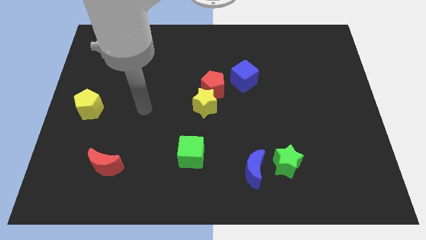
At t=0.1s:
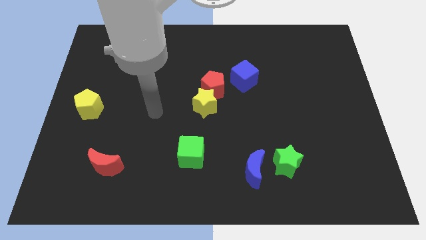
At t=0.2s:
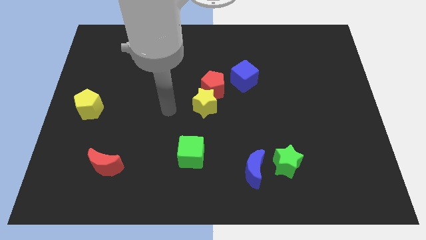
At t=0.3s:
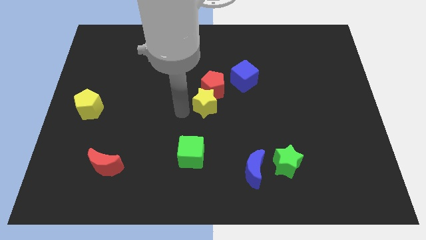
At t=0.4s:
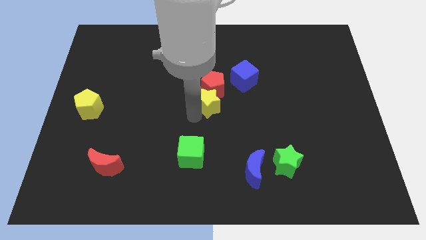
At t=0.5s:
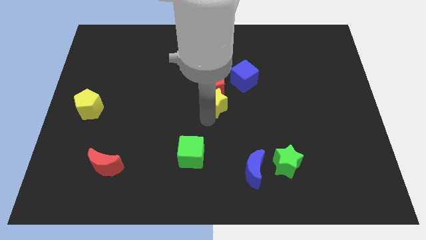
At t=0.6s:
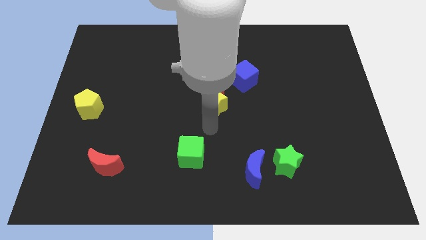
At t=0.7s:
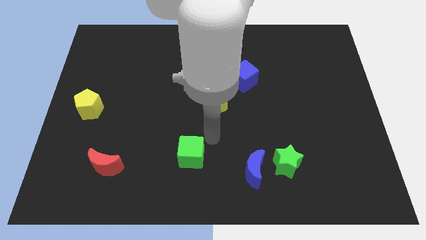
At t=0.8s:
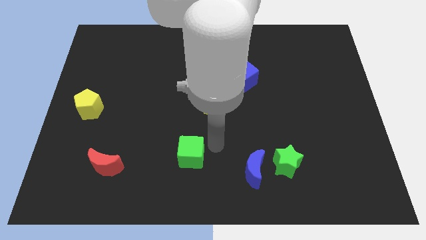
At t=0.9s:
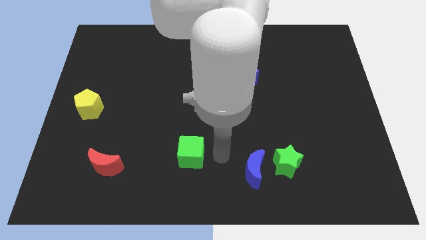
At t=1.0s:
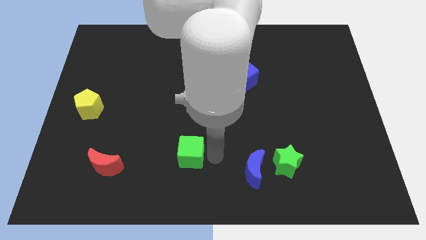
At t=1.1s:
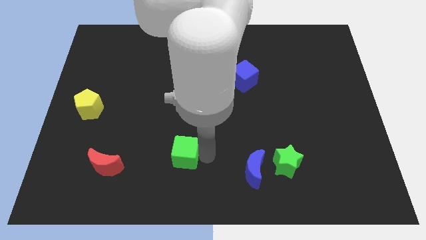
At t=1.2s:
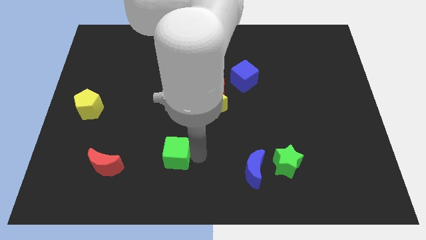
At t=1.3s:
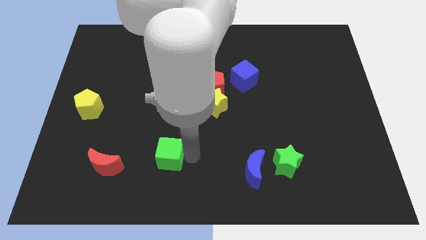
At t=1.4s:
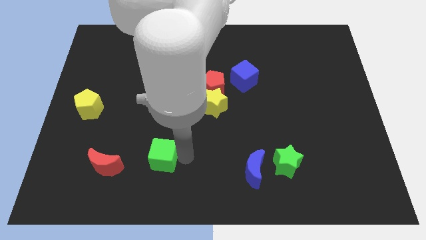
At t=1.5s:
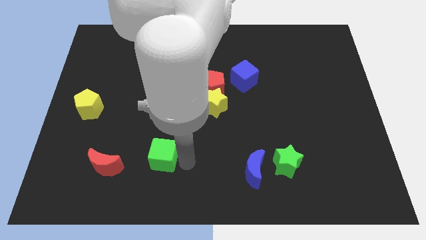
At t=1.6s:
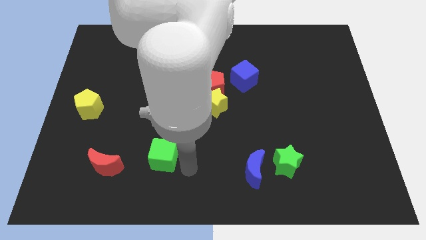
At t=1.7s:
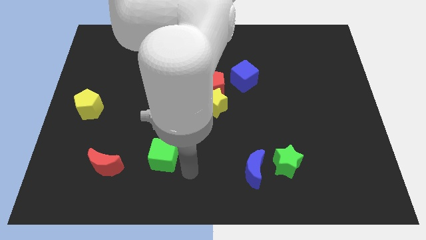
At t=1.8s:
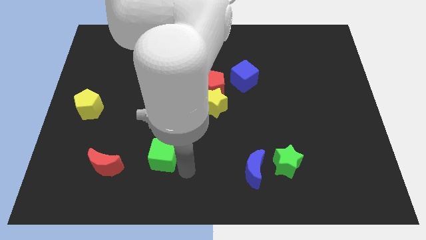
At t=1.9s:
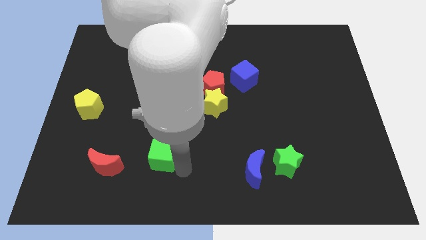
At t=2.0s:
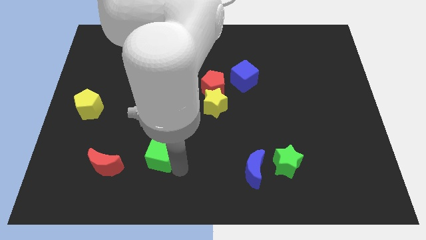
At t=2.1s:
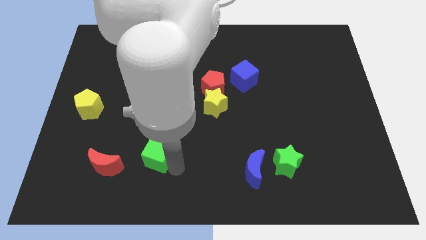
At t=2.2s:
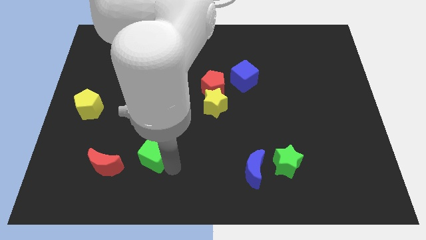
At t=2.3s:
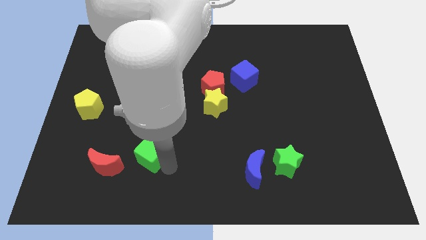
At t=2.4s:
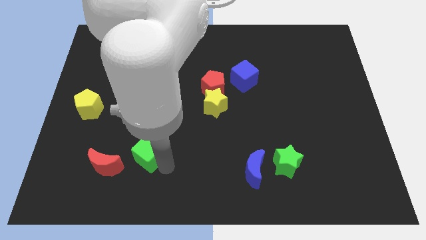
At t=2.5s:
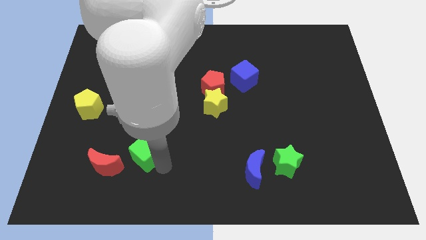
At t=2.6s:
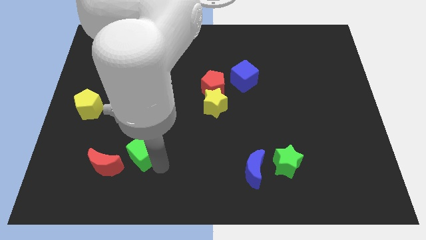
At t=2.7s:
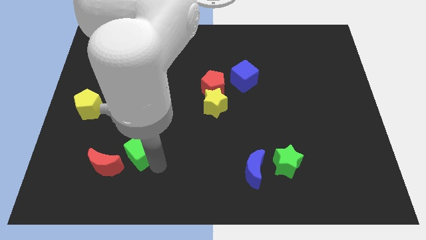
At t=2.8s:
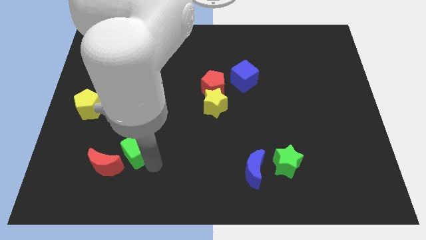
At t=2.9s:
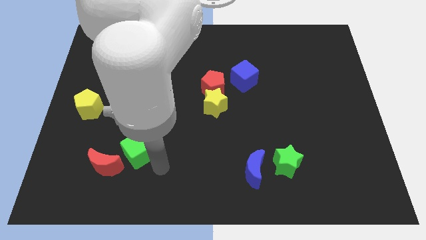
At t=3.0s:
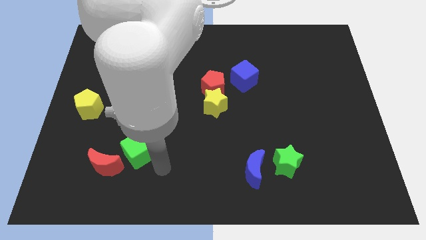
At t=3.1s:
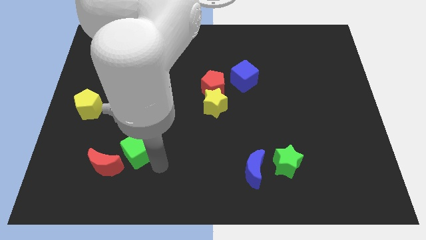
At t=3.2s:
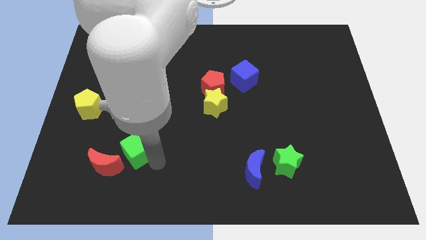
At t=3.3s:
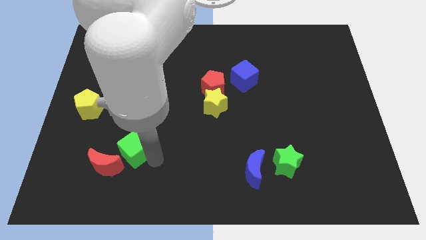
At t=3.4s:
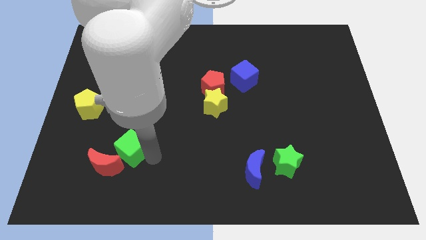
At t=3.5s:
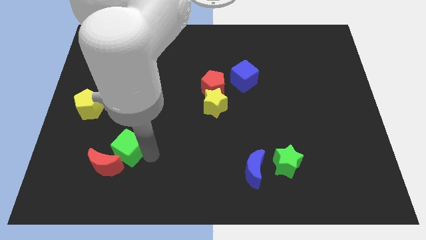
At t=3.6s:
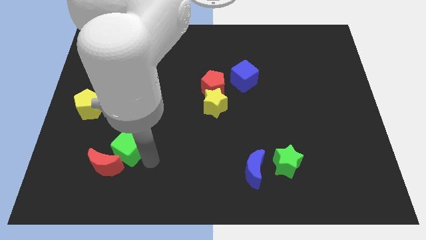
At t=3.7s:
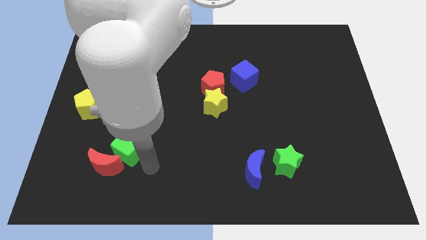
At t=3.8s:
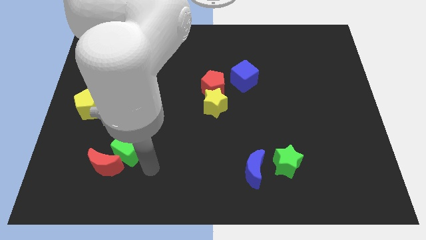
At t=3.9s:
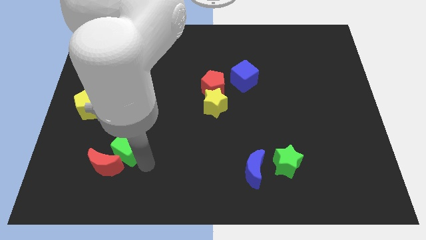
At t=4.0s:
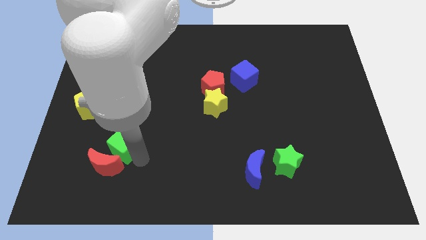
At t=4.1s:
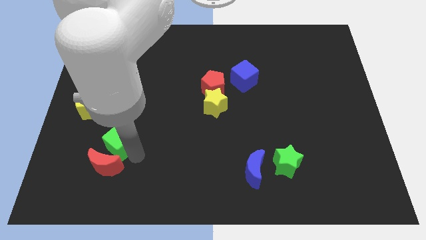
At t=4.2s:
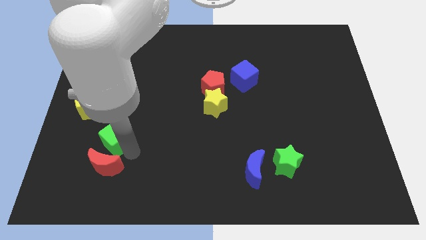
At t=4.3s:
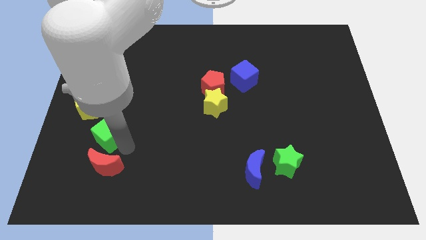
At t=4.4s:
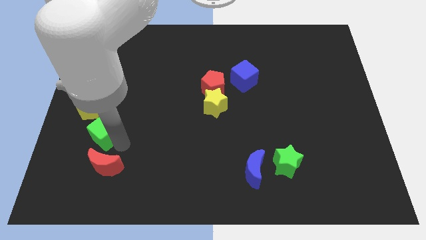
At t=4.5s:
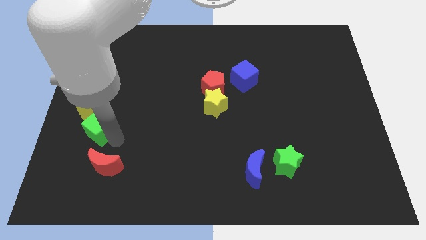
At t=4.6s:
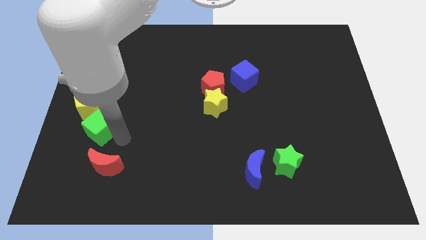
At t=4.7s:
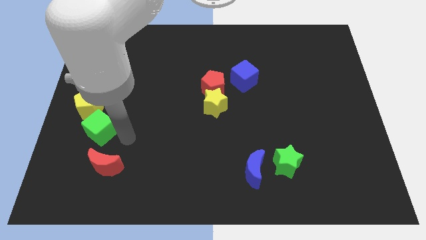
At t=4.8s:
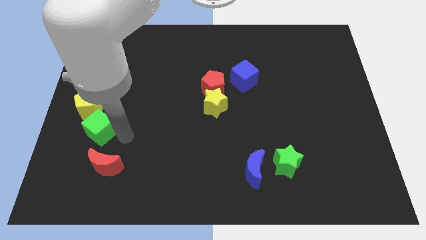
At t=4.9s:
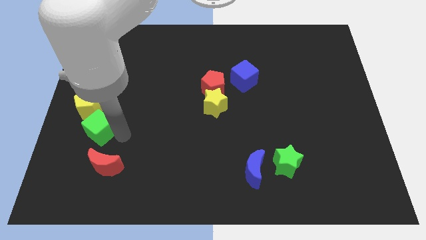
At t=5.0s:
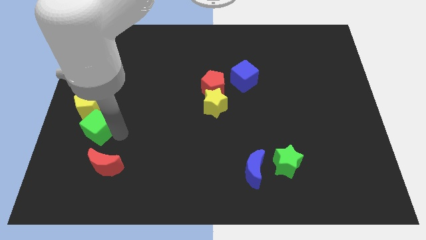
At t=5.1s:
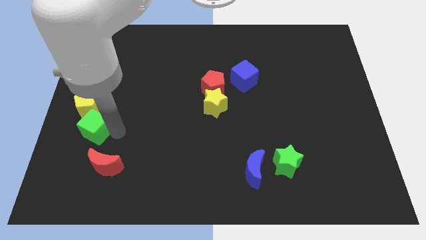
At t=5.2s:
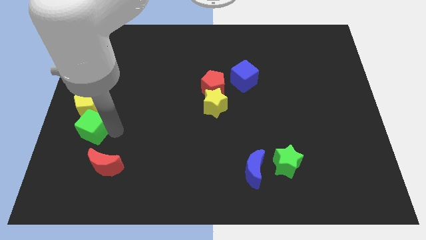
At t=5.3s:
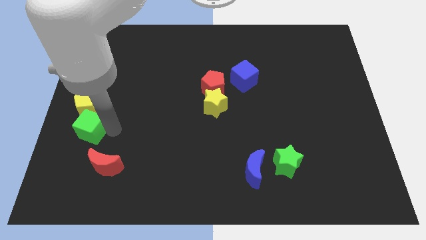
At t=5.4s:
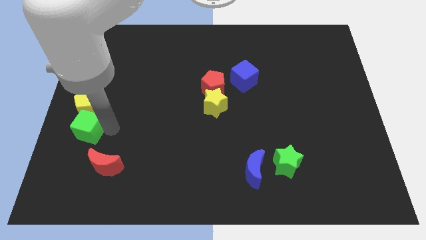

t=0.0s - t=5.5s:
push the green cube to the left side of the board

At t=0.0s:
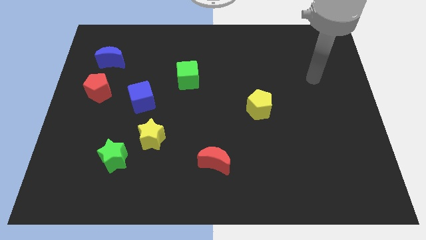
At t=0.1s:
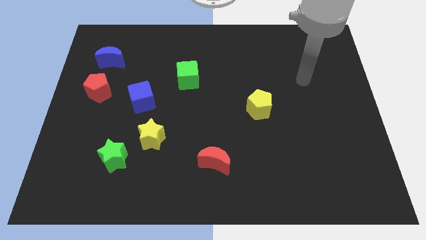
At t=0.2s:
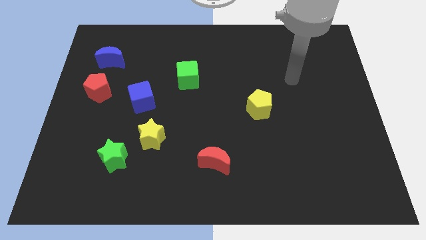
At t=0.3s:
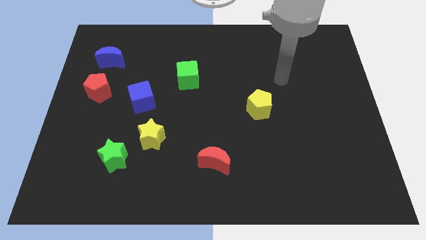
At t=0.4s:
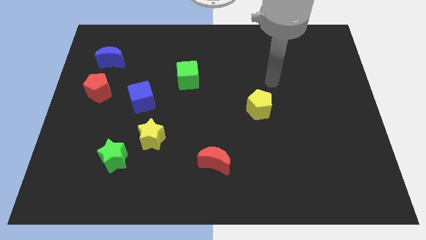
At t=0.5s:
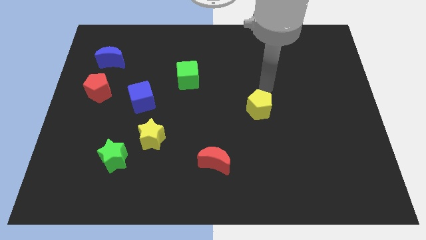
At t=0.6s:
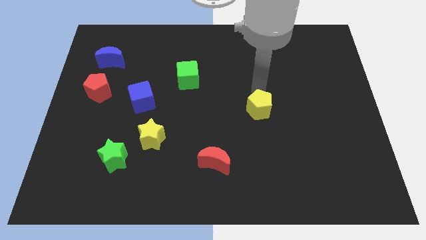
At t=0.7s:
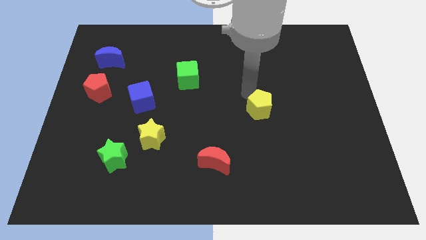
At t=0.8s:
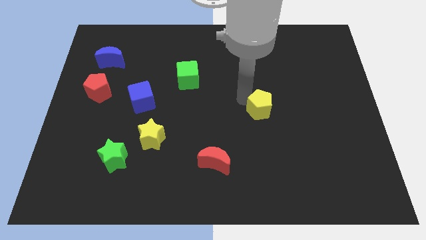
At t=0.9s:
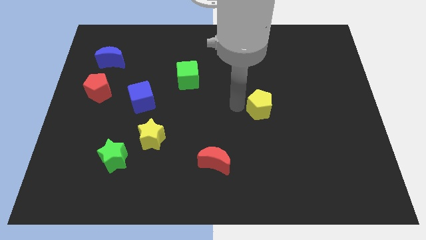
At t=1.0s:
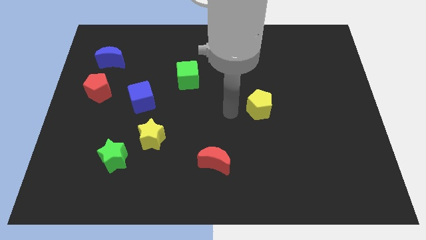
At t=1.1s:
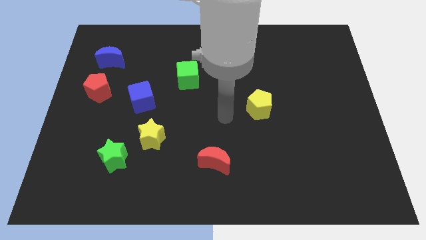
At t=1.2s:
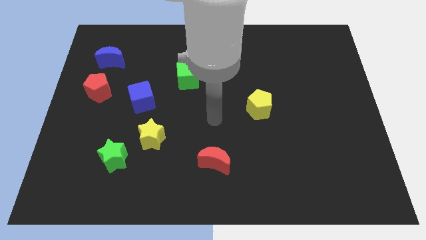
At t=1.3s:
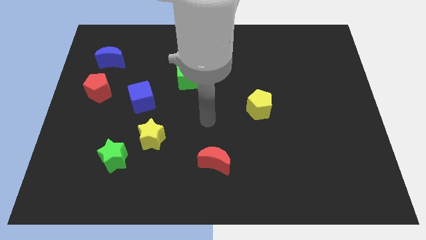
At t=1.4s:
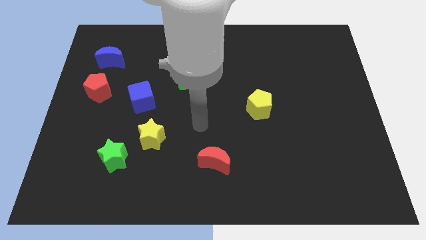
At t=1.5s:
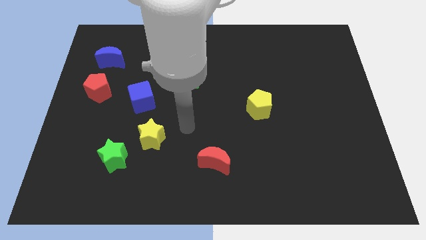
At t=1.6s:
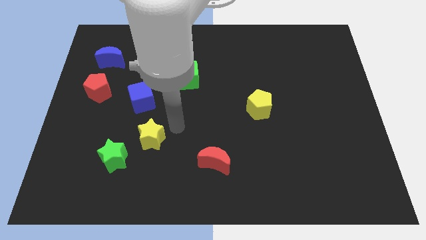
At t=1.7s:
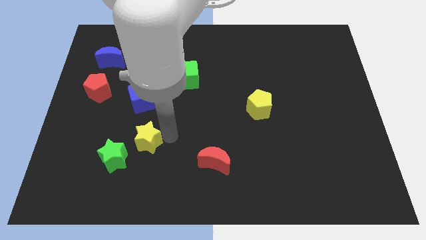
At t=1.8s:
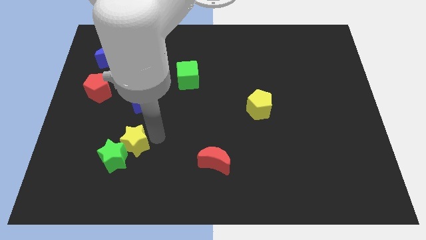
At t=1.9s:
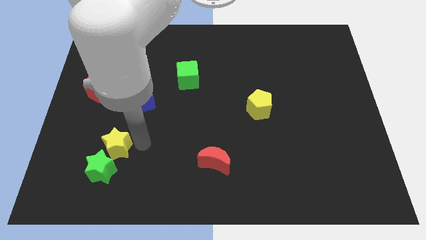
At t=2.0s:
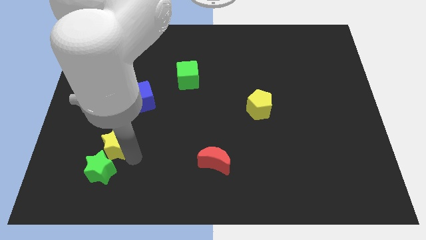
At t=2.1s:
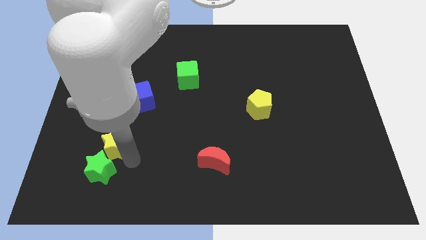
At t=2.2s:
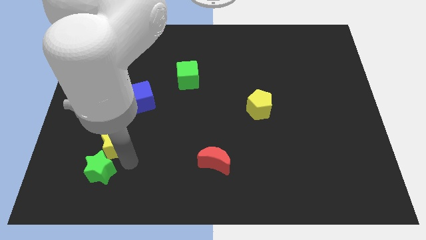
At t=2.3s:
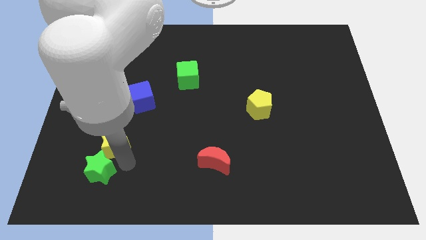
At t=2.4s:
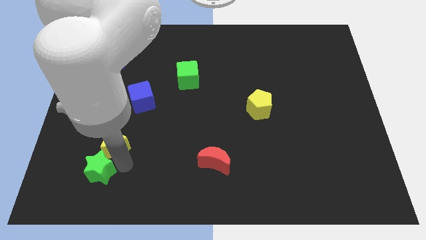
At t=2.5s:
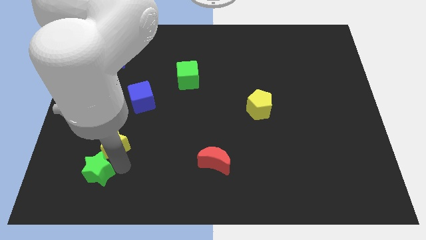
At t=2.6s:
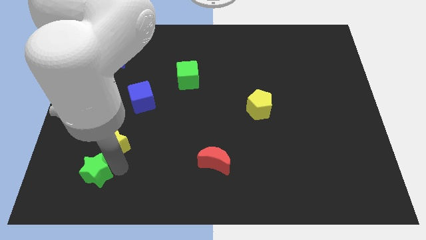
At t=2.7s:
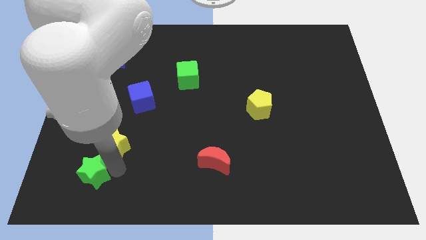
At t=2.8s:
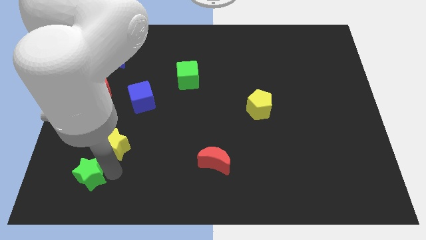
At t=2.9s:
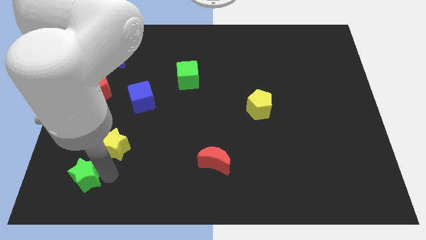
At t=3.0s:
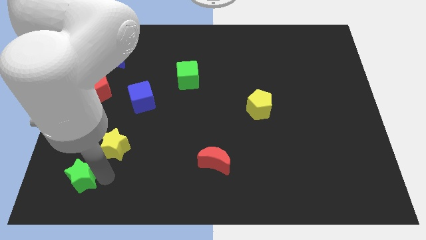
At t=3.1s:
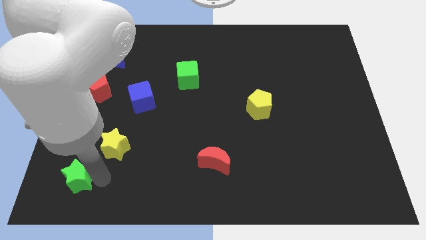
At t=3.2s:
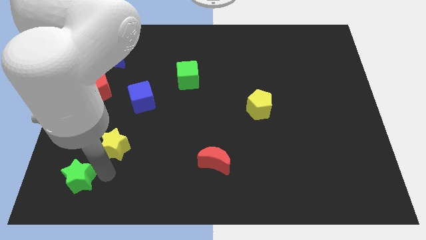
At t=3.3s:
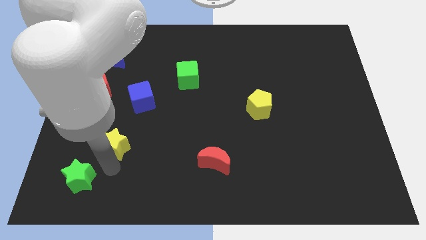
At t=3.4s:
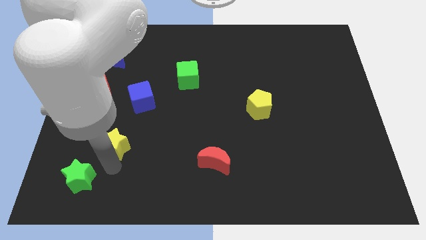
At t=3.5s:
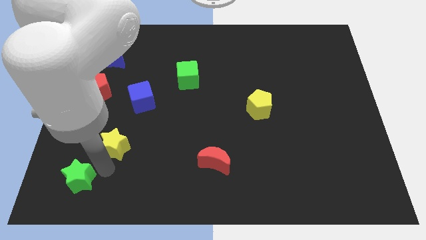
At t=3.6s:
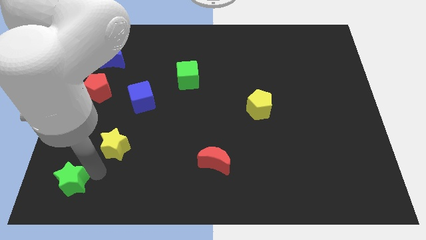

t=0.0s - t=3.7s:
slide the green star to the bottom left corner
